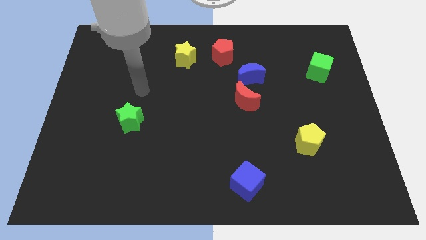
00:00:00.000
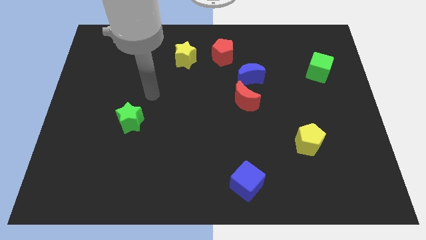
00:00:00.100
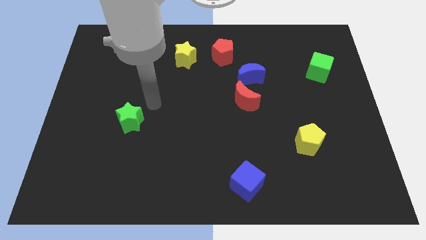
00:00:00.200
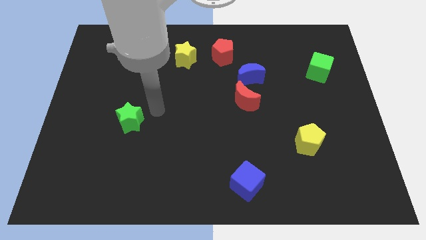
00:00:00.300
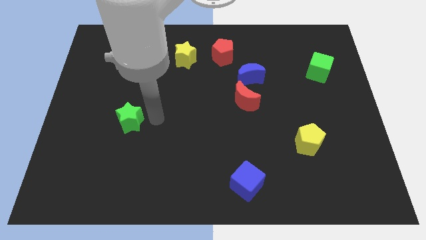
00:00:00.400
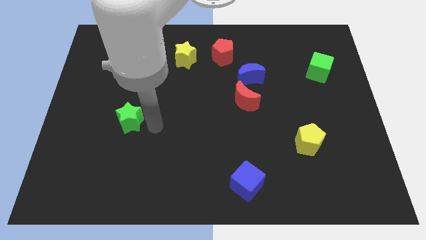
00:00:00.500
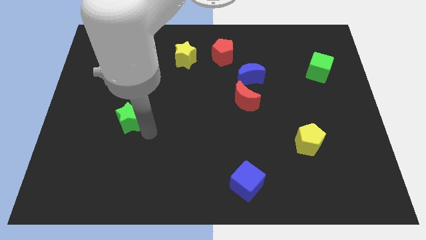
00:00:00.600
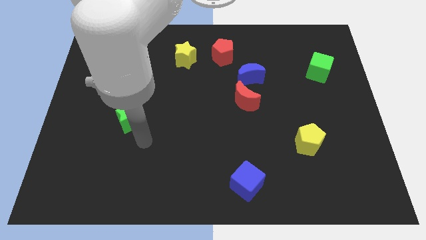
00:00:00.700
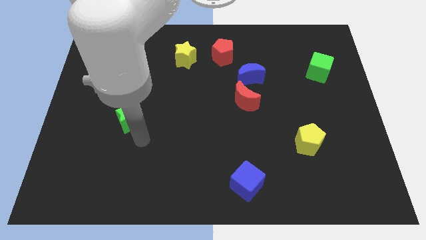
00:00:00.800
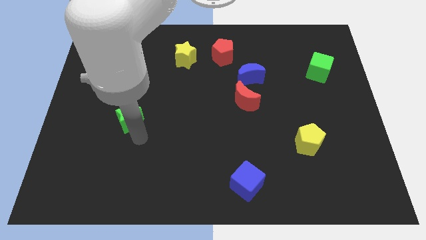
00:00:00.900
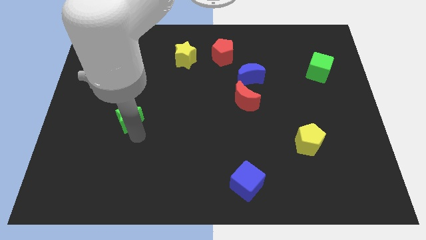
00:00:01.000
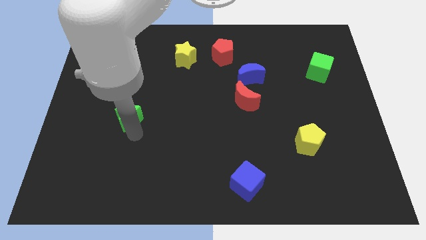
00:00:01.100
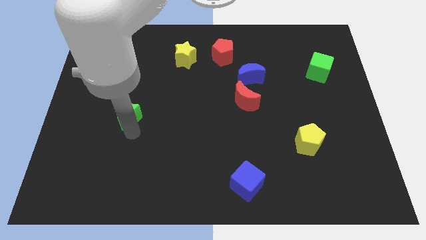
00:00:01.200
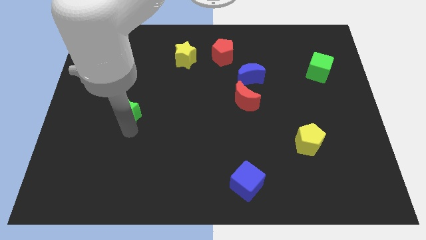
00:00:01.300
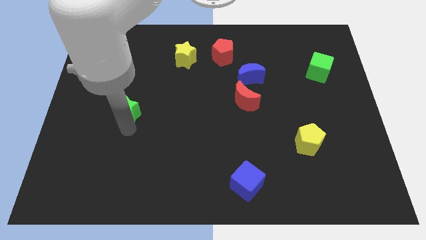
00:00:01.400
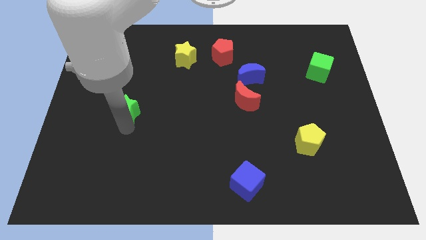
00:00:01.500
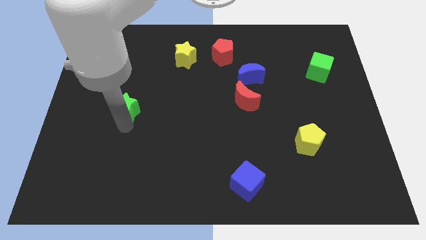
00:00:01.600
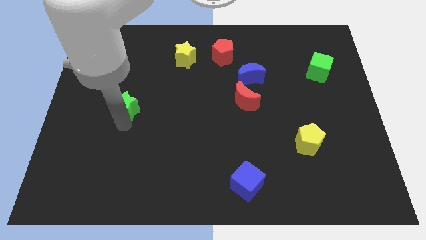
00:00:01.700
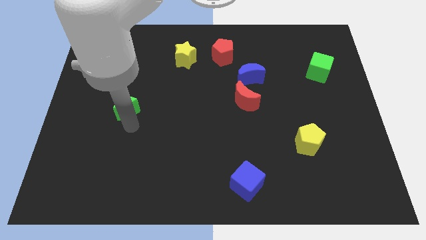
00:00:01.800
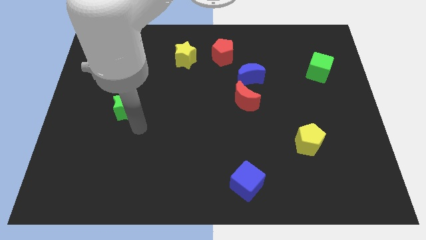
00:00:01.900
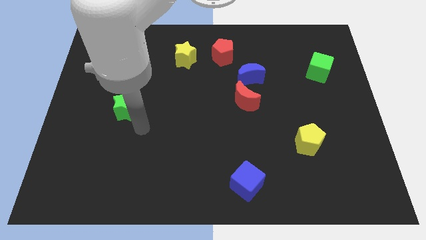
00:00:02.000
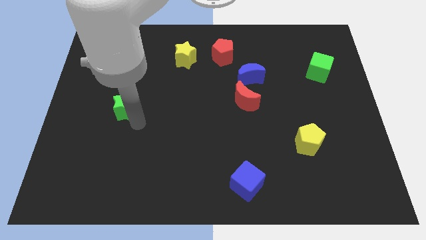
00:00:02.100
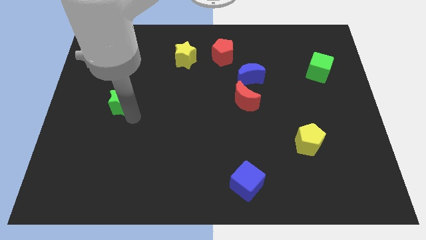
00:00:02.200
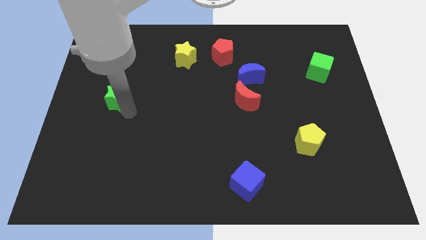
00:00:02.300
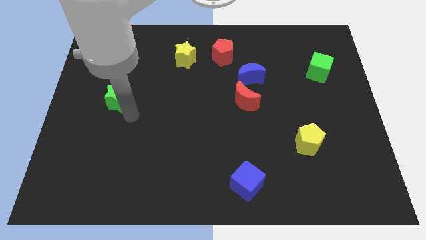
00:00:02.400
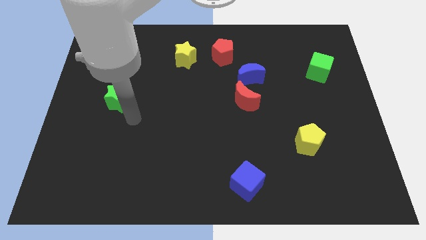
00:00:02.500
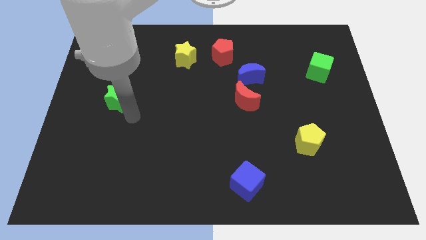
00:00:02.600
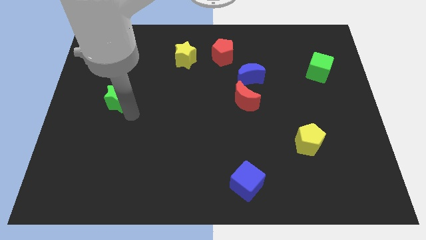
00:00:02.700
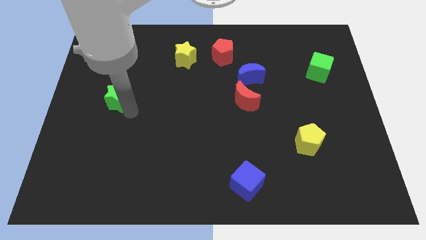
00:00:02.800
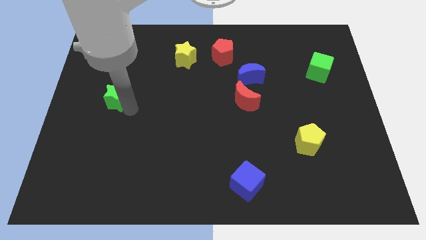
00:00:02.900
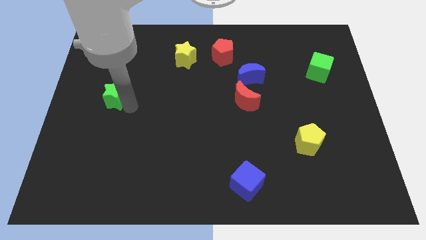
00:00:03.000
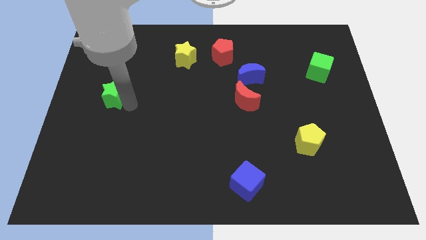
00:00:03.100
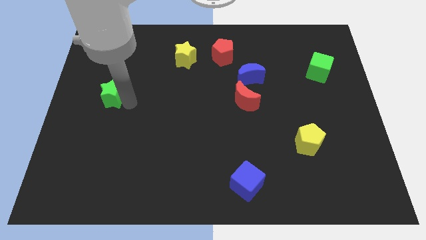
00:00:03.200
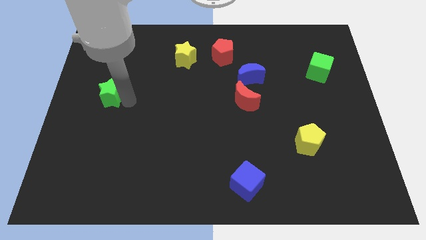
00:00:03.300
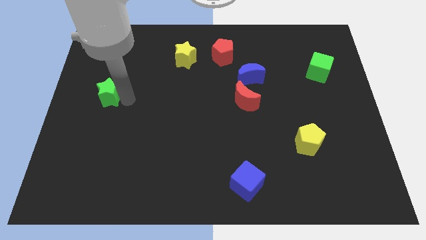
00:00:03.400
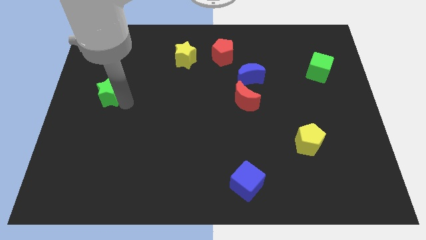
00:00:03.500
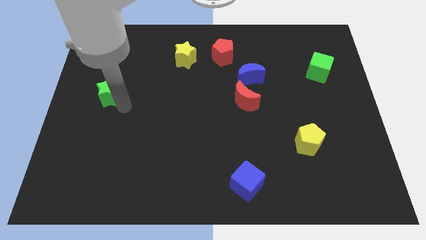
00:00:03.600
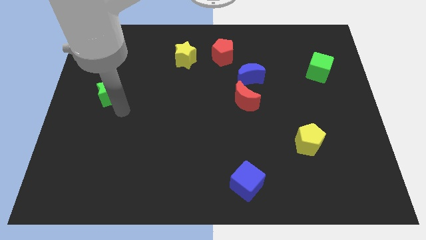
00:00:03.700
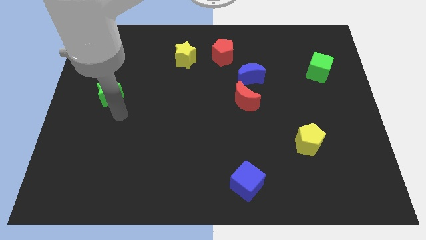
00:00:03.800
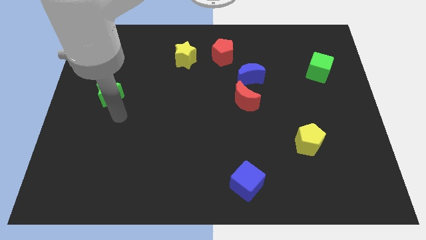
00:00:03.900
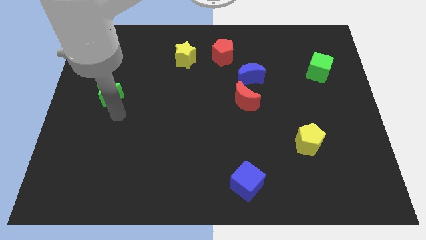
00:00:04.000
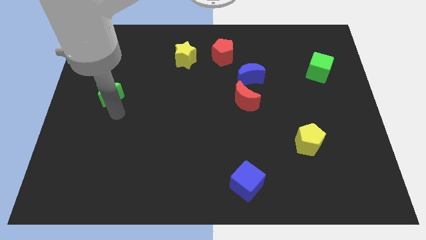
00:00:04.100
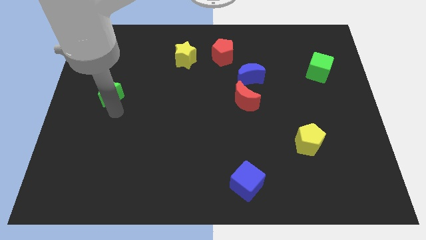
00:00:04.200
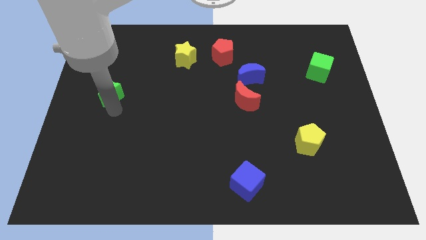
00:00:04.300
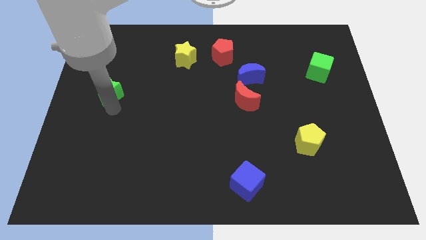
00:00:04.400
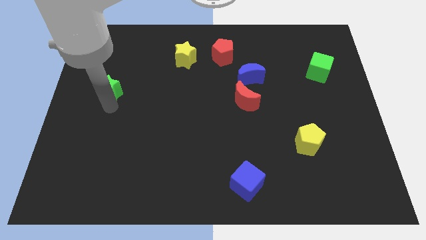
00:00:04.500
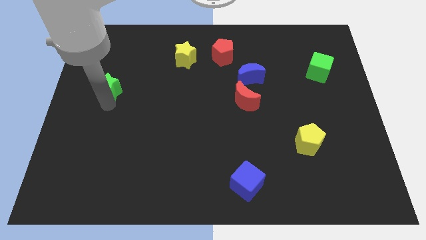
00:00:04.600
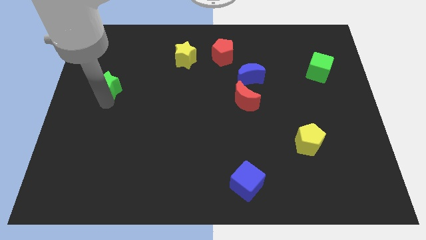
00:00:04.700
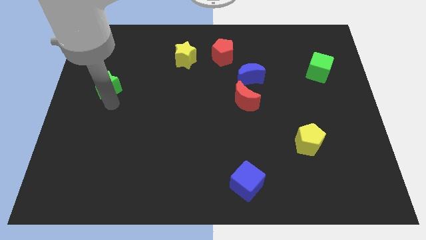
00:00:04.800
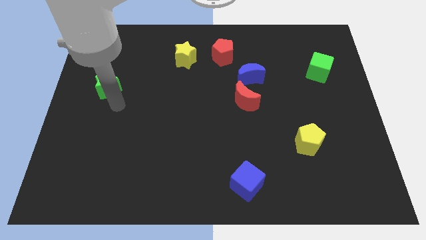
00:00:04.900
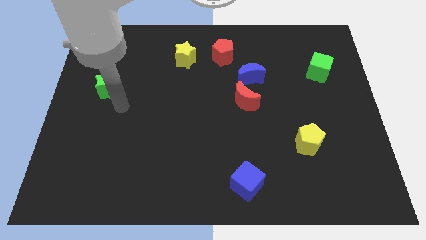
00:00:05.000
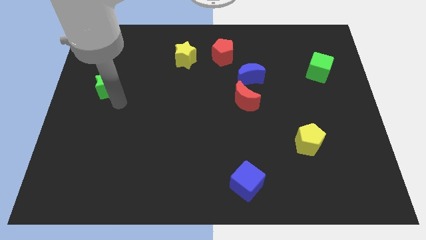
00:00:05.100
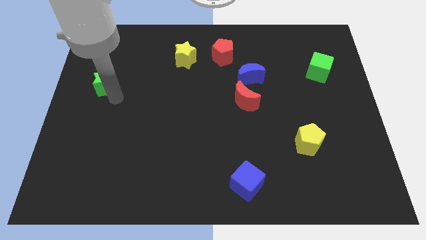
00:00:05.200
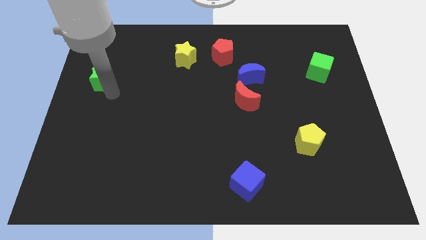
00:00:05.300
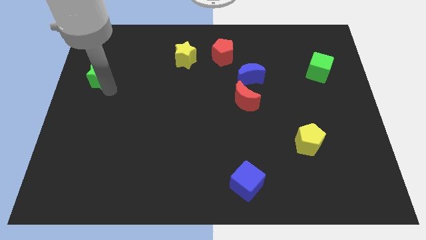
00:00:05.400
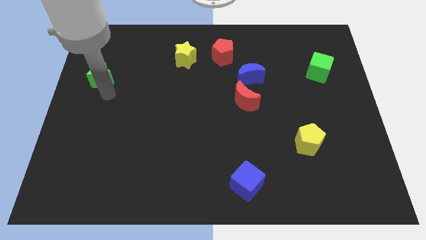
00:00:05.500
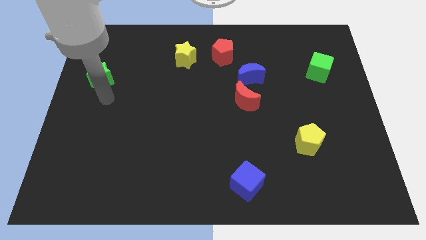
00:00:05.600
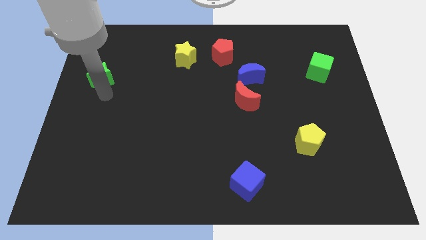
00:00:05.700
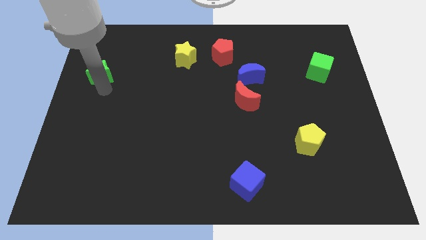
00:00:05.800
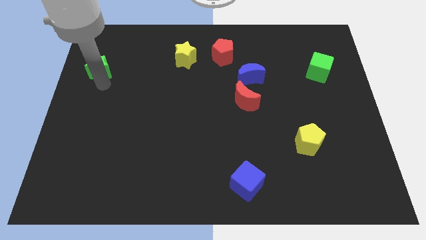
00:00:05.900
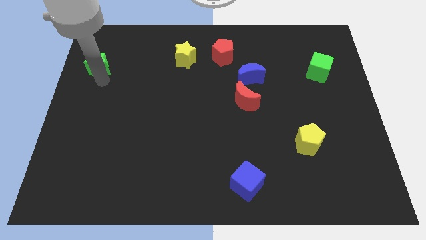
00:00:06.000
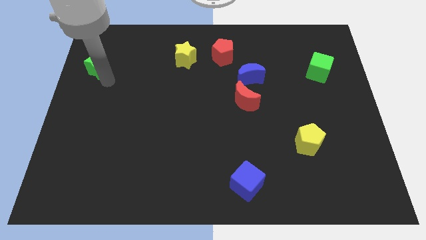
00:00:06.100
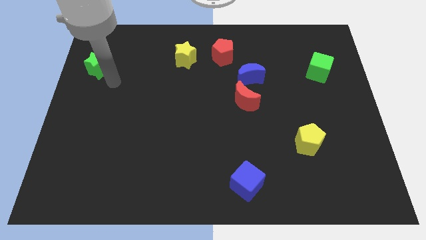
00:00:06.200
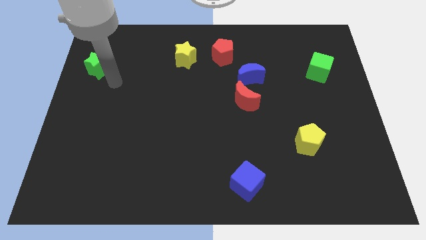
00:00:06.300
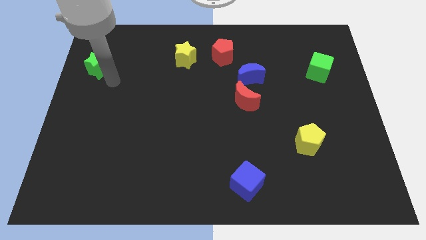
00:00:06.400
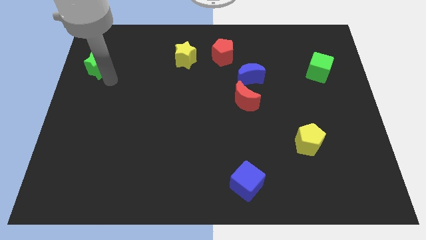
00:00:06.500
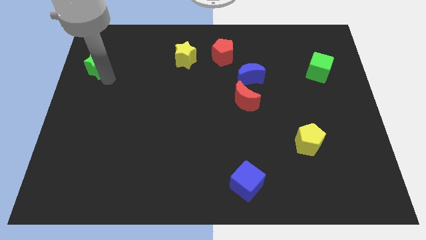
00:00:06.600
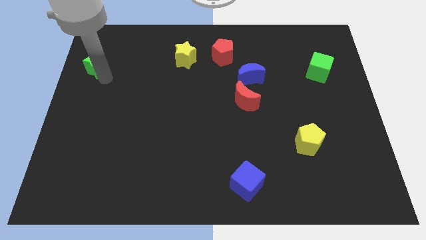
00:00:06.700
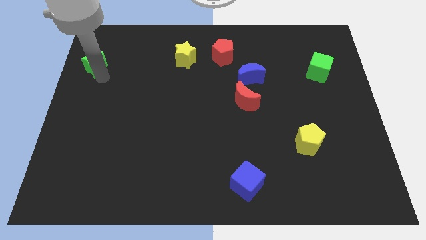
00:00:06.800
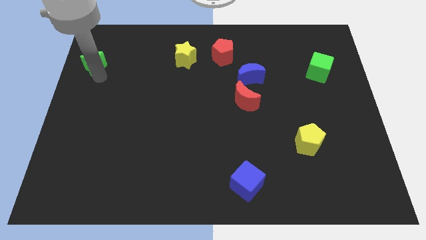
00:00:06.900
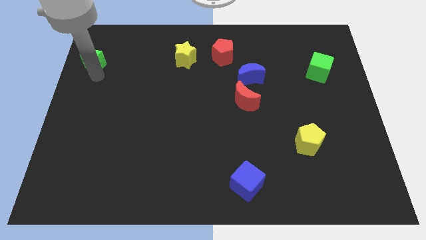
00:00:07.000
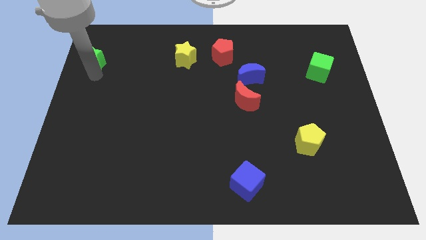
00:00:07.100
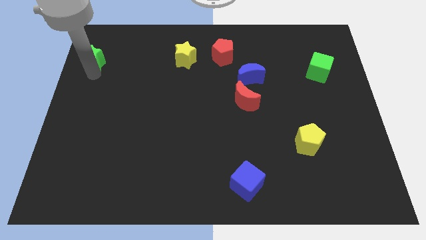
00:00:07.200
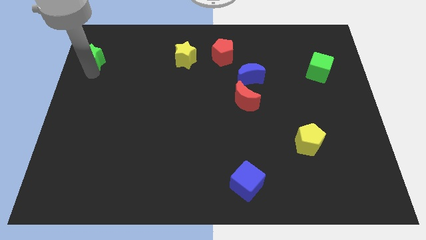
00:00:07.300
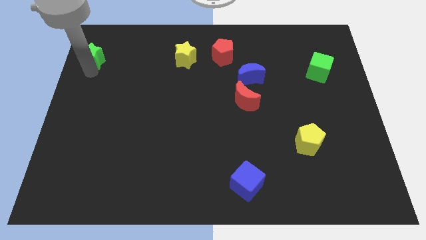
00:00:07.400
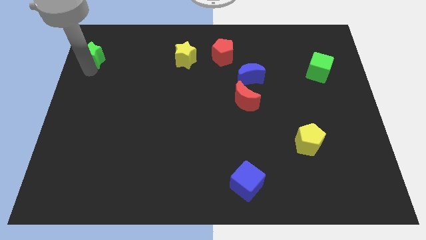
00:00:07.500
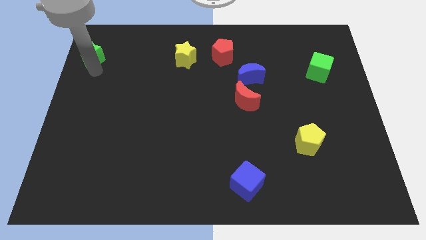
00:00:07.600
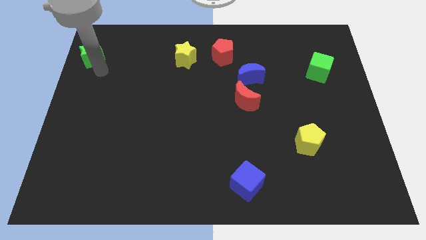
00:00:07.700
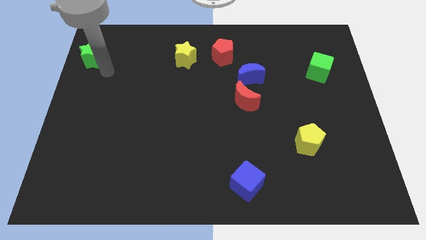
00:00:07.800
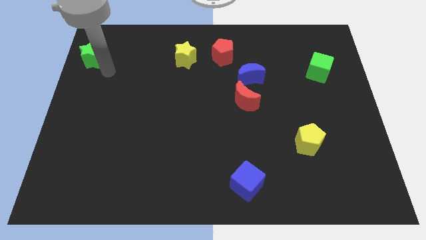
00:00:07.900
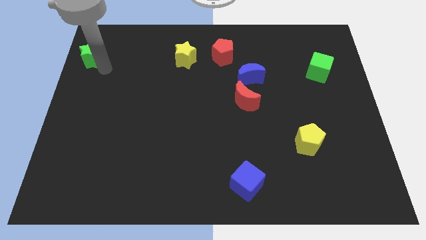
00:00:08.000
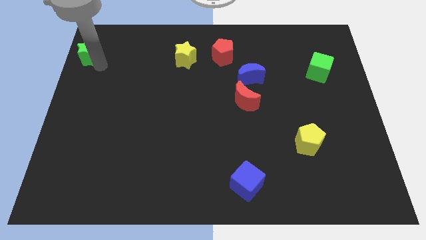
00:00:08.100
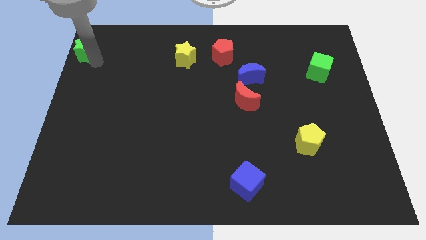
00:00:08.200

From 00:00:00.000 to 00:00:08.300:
slide the green star to the top left corner
